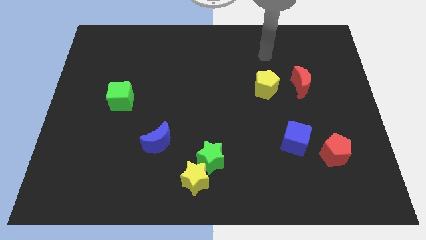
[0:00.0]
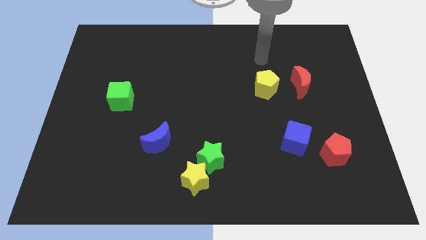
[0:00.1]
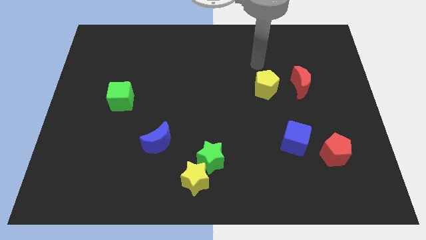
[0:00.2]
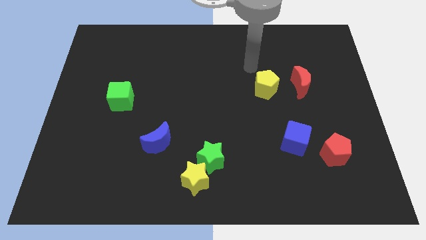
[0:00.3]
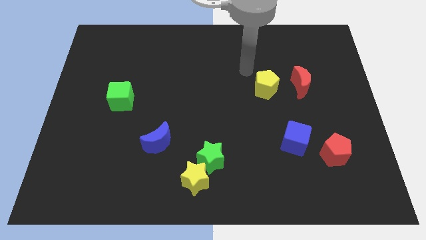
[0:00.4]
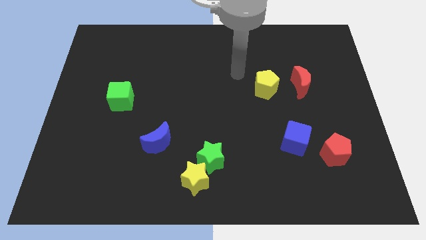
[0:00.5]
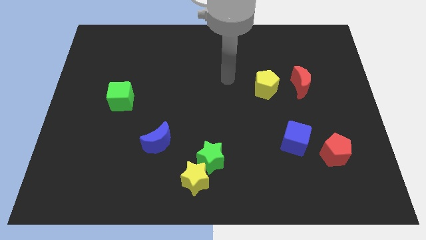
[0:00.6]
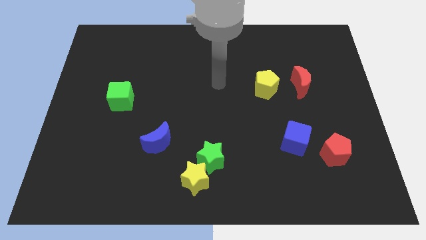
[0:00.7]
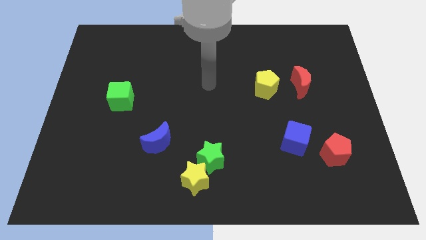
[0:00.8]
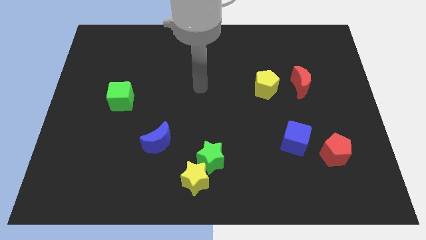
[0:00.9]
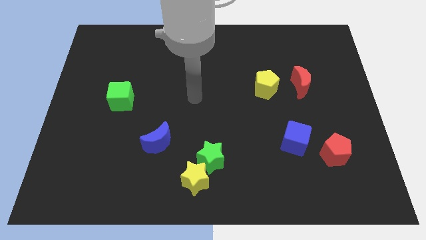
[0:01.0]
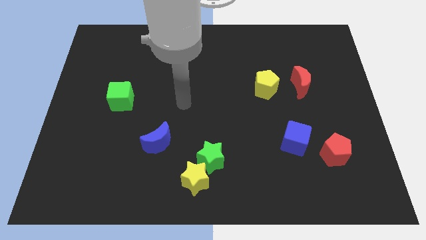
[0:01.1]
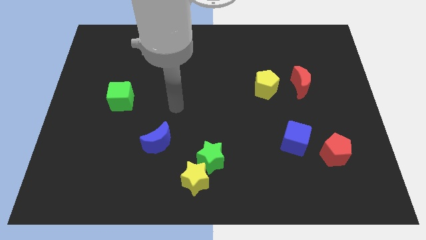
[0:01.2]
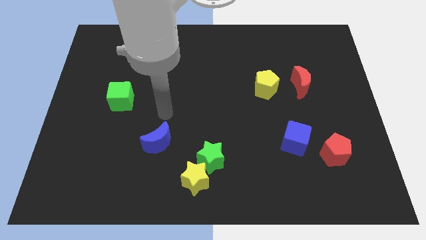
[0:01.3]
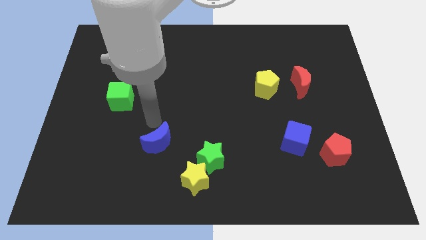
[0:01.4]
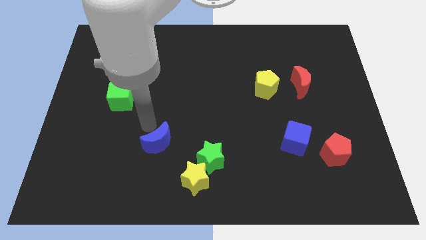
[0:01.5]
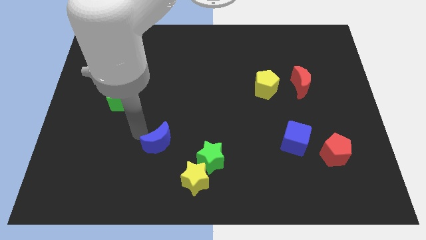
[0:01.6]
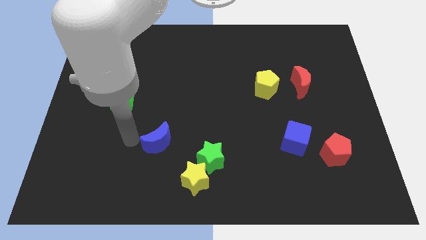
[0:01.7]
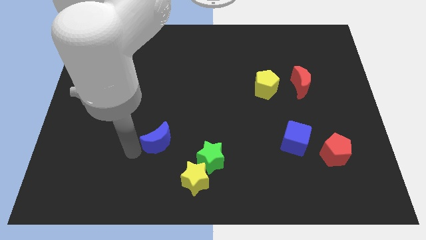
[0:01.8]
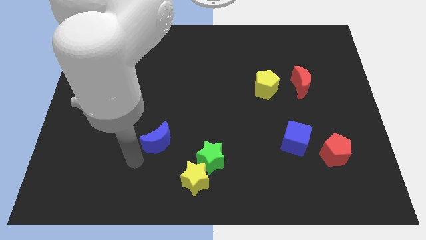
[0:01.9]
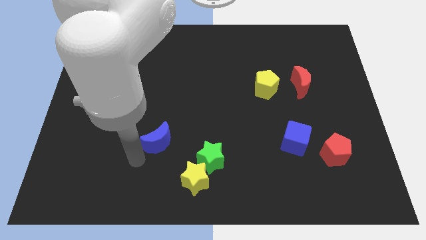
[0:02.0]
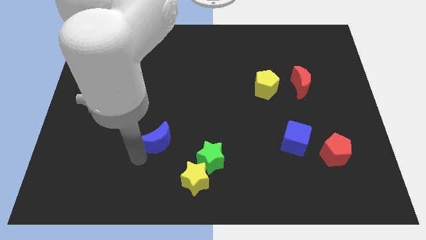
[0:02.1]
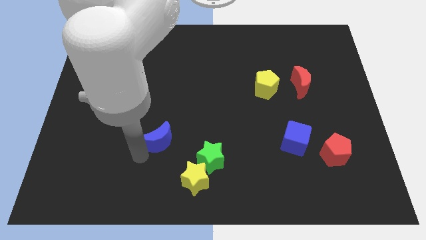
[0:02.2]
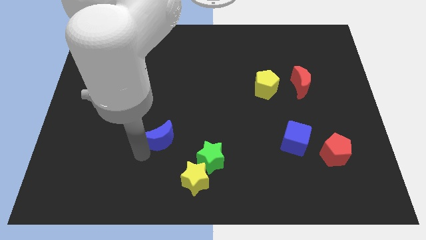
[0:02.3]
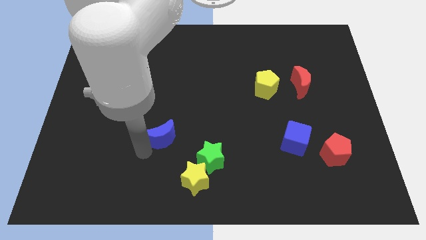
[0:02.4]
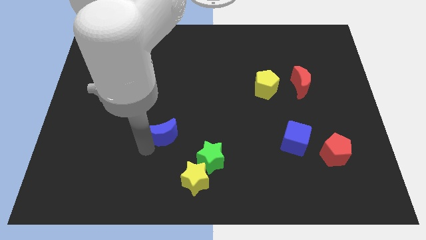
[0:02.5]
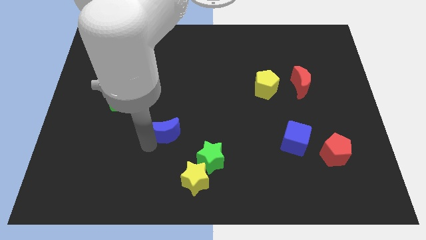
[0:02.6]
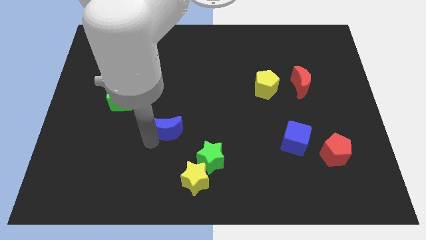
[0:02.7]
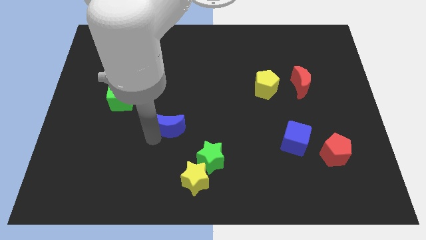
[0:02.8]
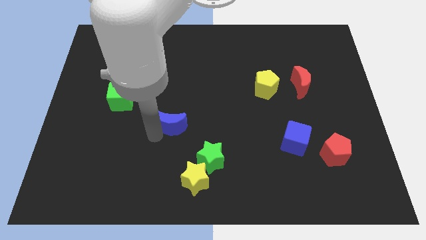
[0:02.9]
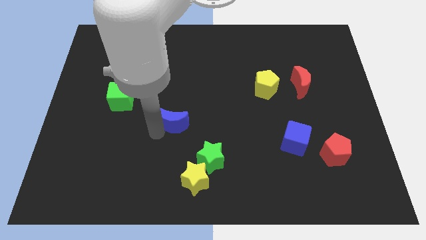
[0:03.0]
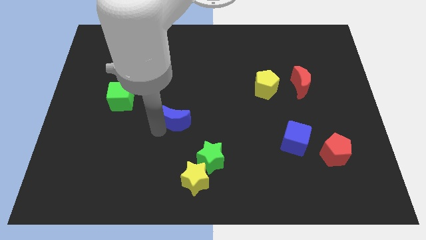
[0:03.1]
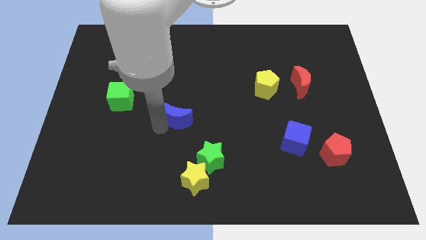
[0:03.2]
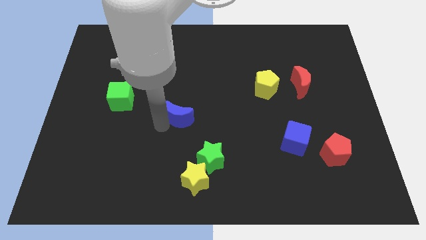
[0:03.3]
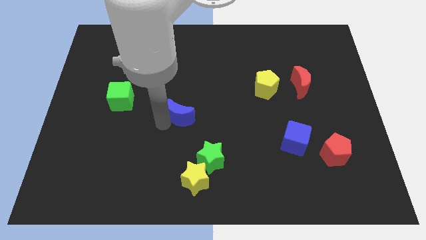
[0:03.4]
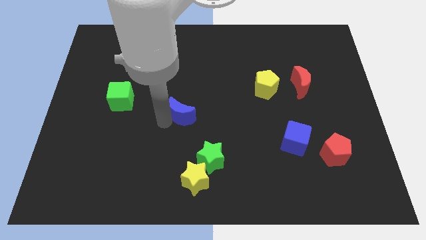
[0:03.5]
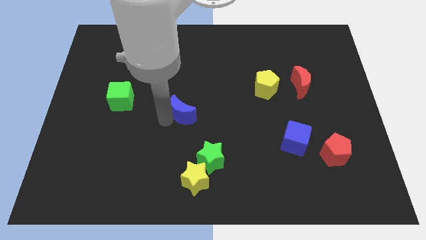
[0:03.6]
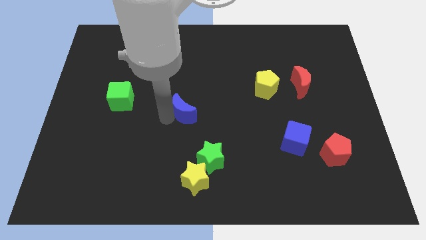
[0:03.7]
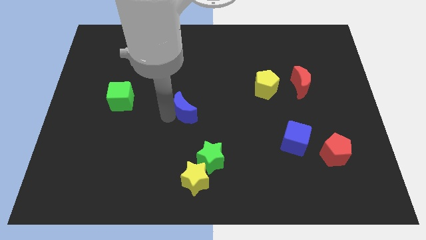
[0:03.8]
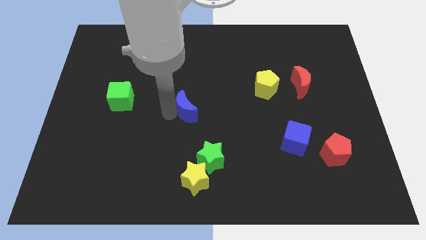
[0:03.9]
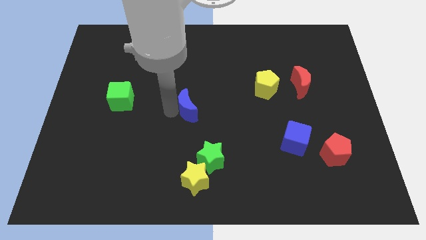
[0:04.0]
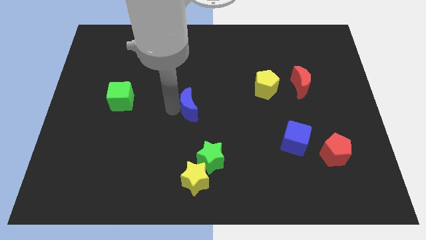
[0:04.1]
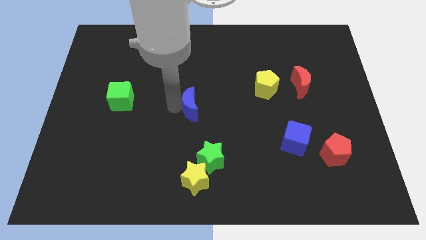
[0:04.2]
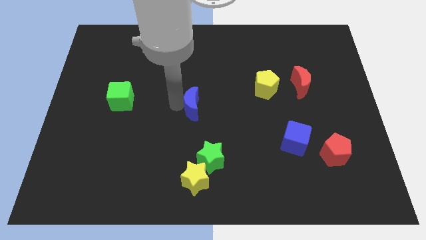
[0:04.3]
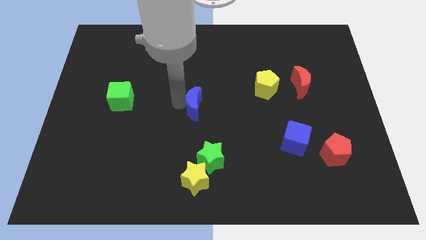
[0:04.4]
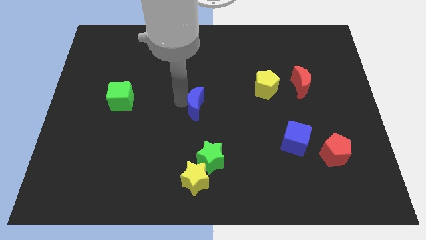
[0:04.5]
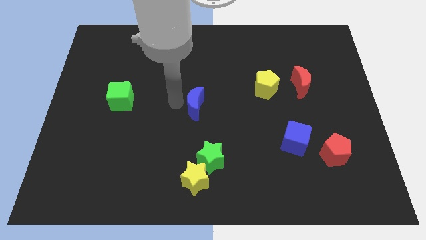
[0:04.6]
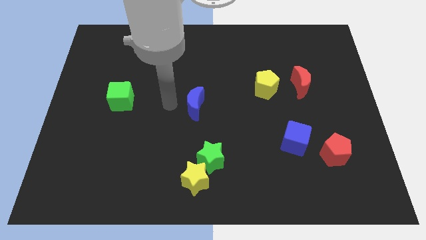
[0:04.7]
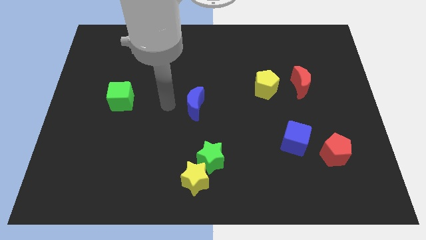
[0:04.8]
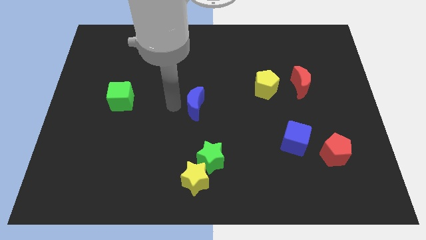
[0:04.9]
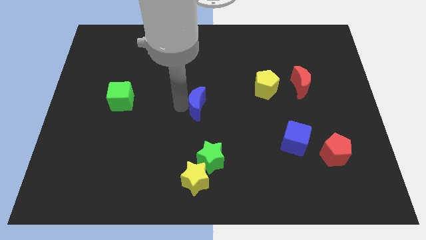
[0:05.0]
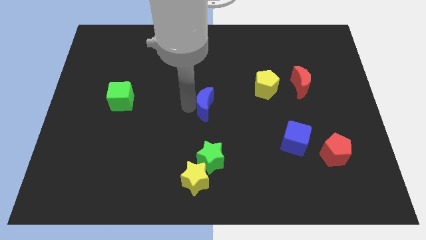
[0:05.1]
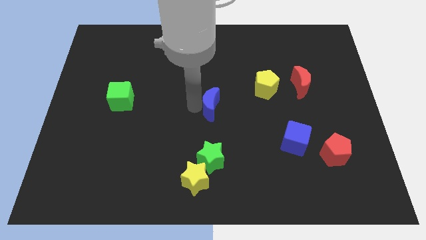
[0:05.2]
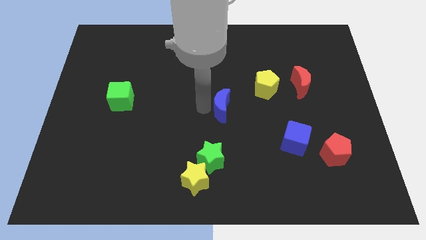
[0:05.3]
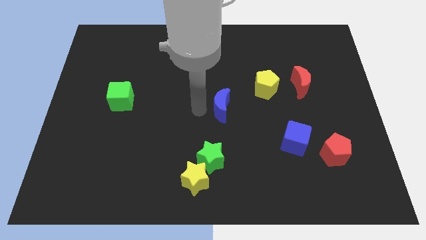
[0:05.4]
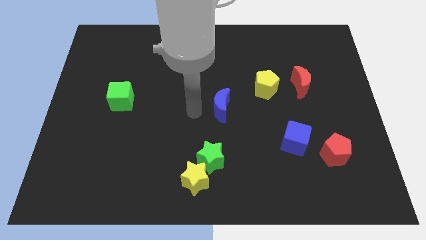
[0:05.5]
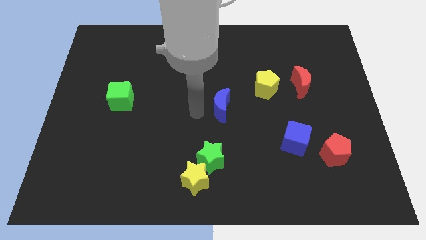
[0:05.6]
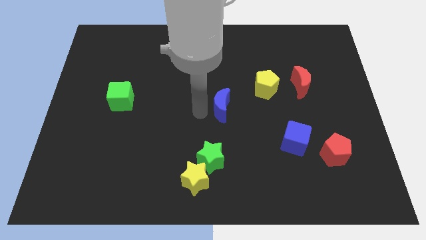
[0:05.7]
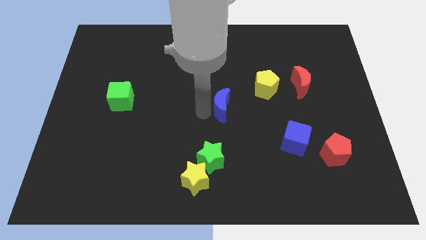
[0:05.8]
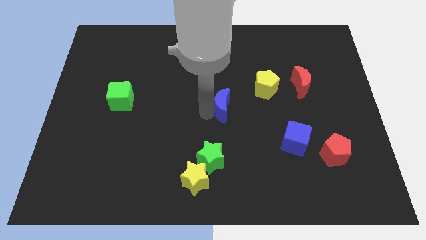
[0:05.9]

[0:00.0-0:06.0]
slide the blue moon to the bottom left of the yellow pentagon
